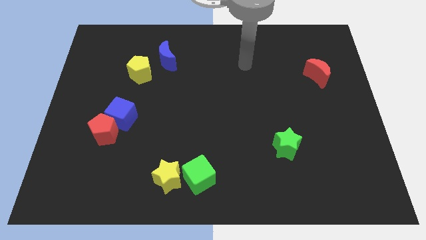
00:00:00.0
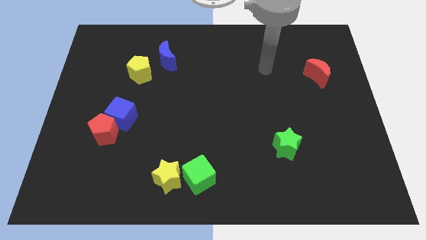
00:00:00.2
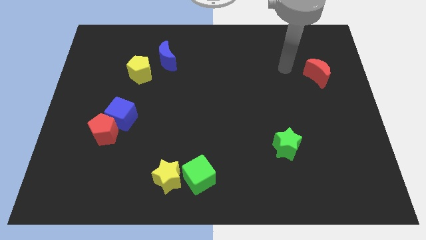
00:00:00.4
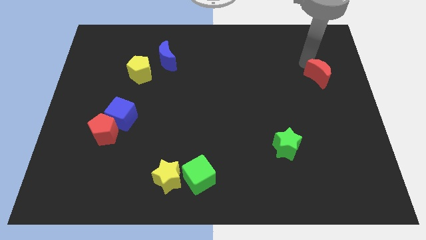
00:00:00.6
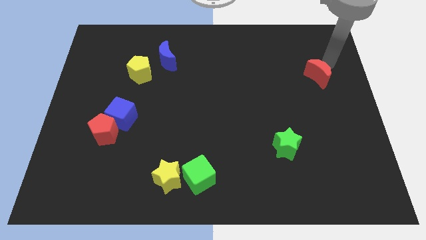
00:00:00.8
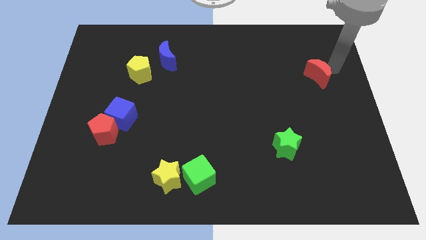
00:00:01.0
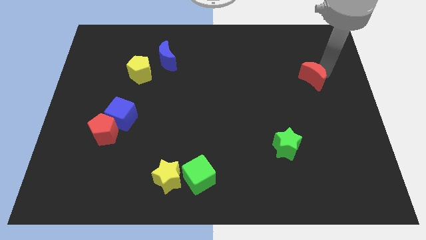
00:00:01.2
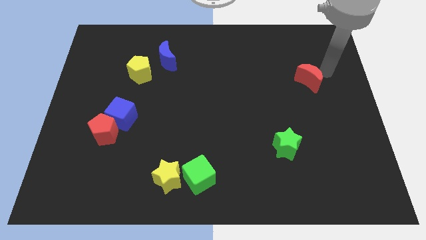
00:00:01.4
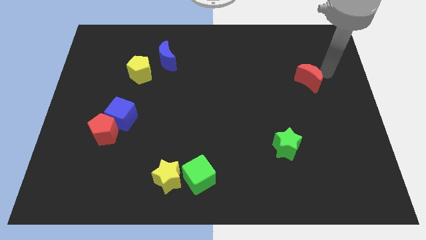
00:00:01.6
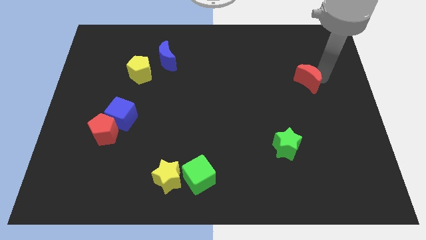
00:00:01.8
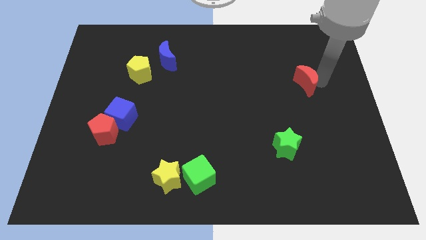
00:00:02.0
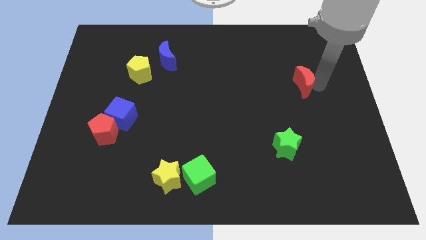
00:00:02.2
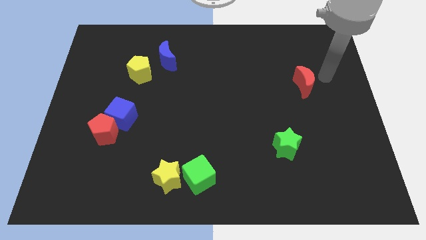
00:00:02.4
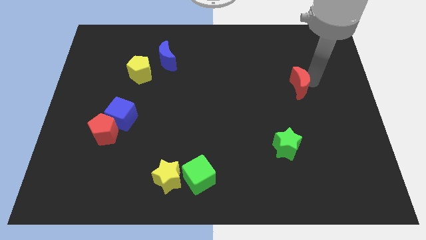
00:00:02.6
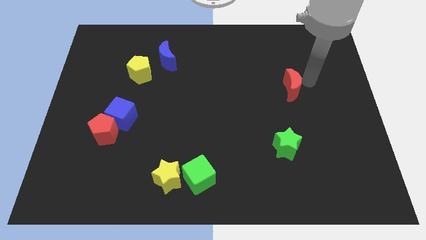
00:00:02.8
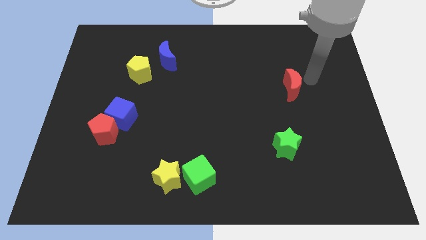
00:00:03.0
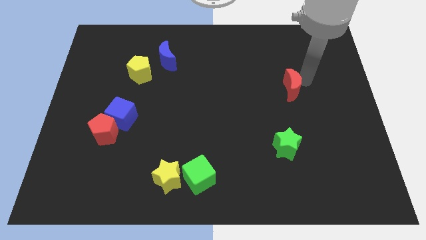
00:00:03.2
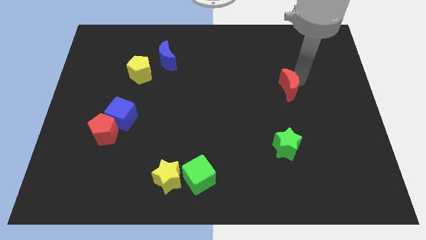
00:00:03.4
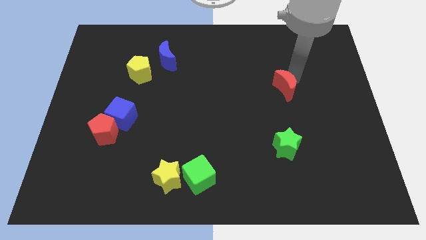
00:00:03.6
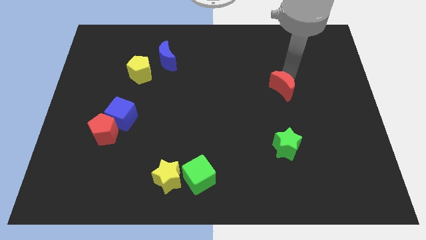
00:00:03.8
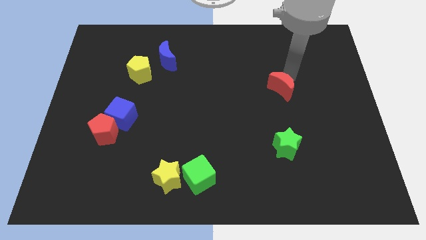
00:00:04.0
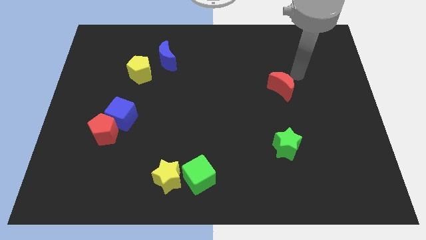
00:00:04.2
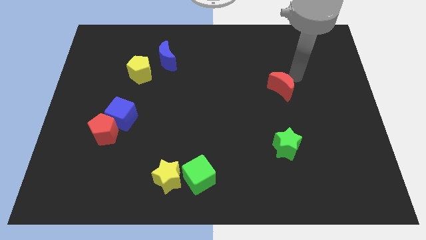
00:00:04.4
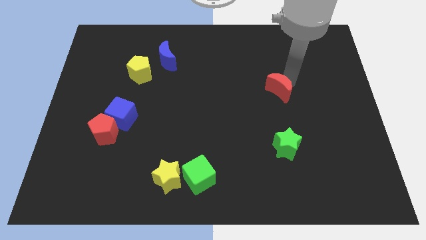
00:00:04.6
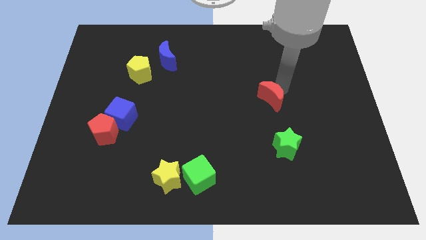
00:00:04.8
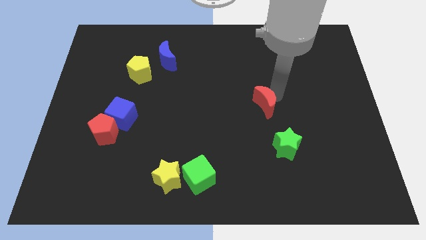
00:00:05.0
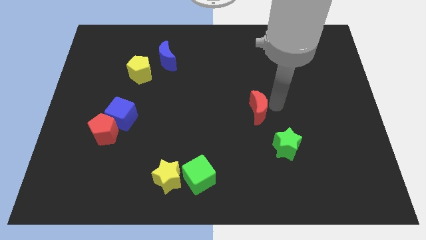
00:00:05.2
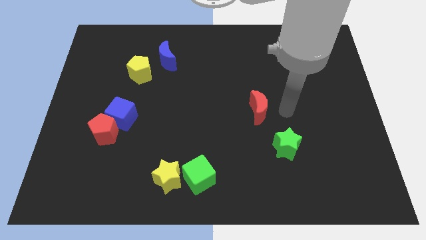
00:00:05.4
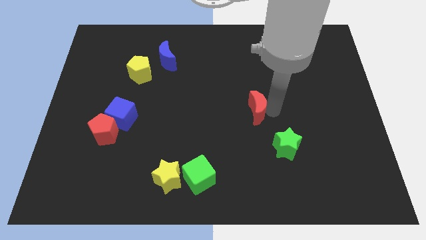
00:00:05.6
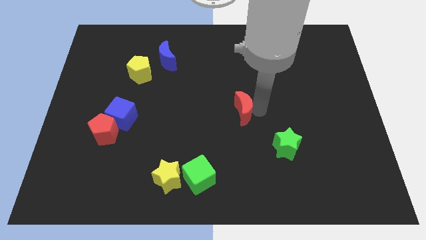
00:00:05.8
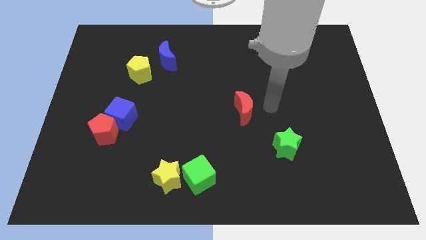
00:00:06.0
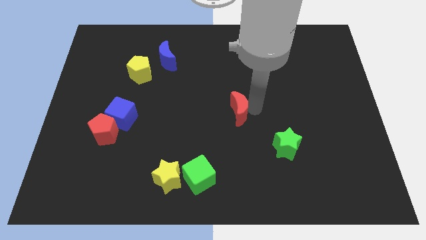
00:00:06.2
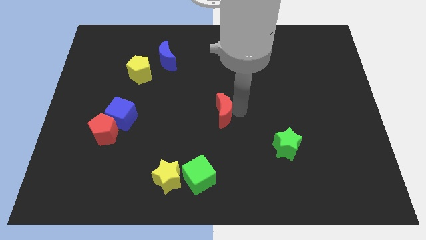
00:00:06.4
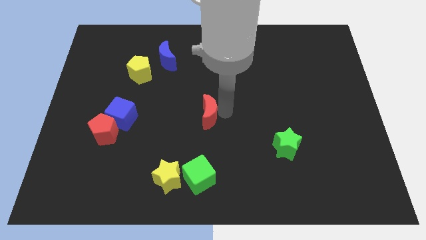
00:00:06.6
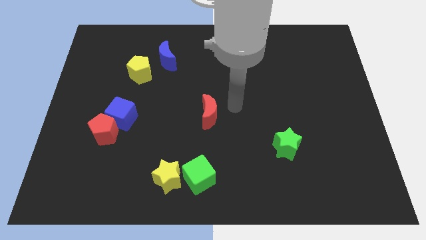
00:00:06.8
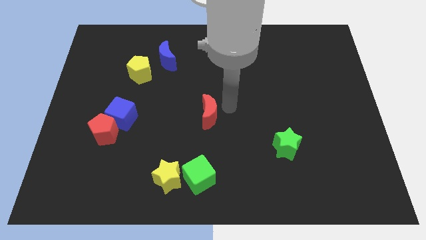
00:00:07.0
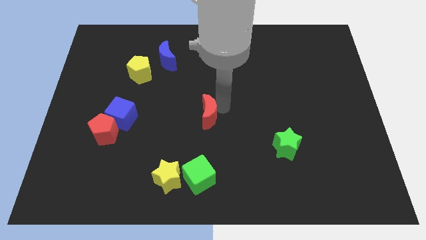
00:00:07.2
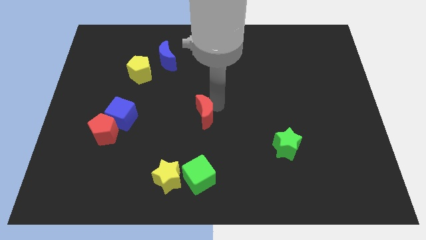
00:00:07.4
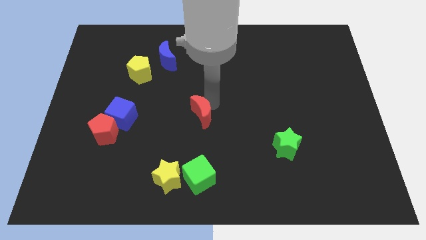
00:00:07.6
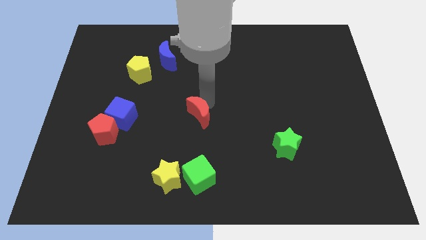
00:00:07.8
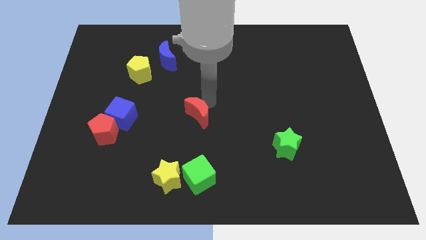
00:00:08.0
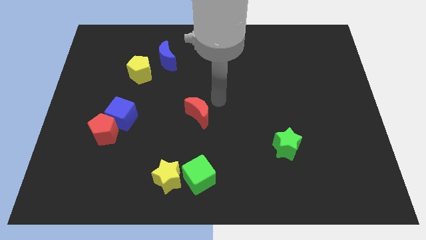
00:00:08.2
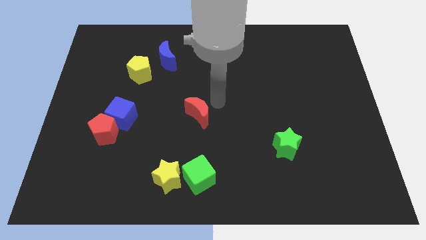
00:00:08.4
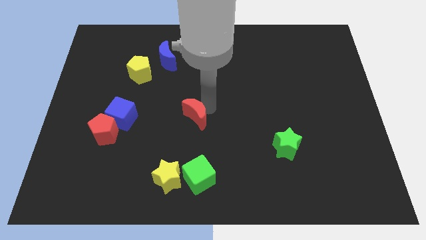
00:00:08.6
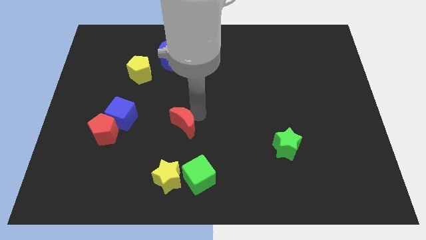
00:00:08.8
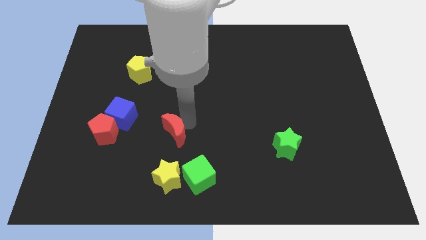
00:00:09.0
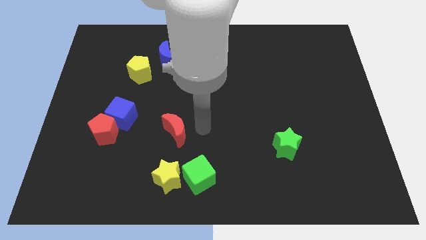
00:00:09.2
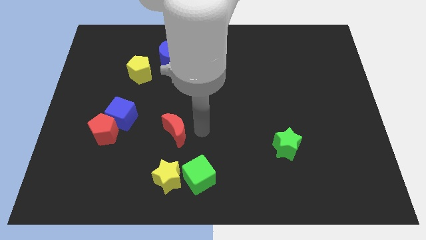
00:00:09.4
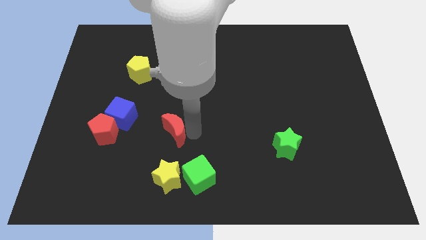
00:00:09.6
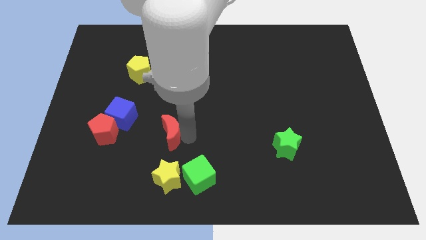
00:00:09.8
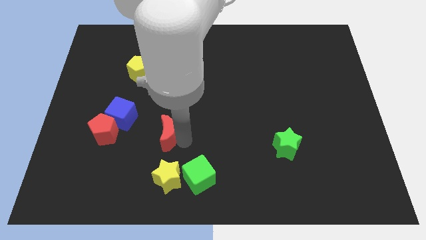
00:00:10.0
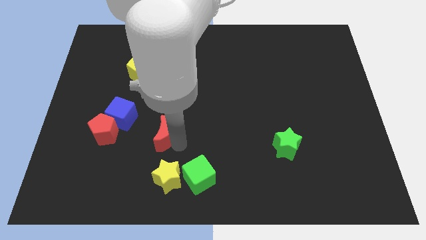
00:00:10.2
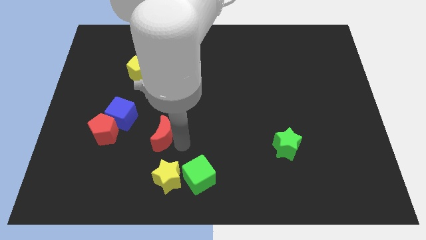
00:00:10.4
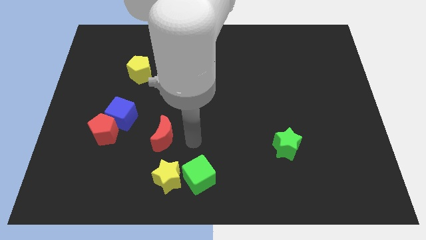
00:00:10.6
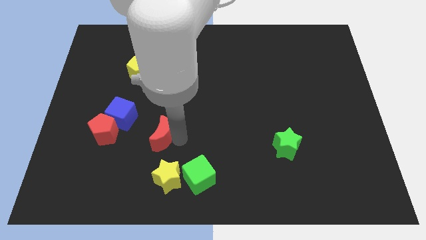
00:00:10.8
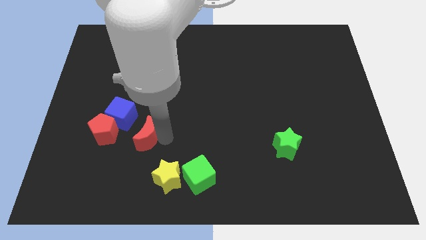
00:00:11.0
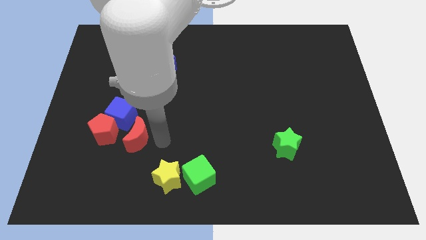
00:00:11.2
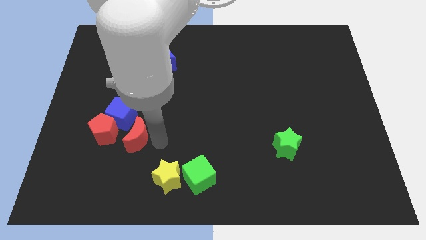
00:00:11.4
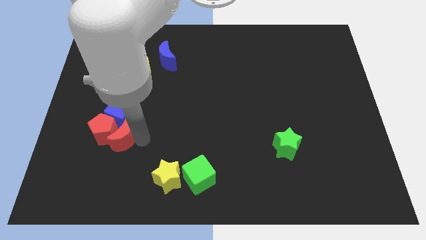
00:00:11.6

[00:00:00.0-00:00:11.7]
slide the red moon next to the red pentagon

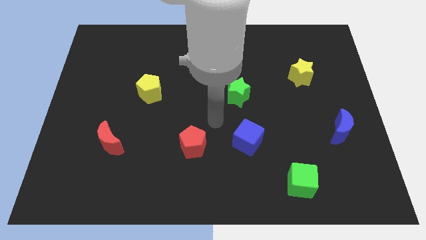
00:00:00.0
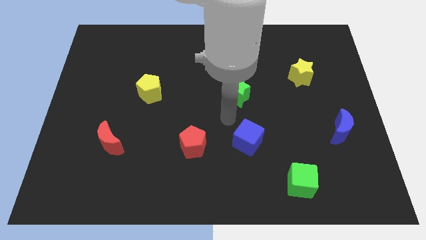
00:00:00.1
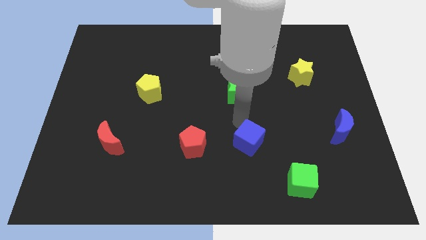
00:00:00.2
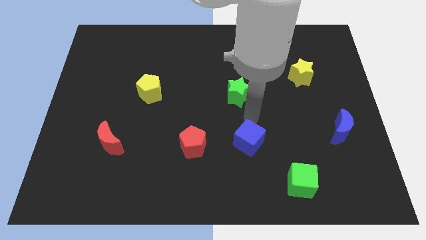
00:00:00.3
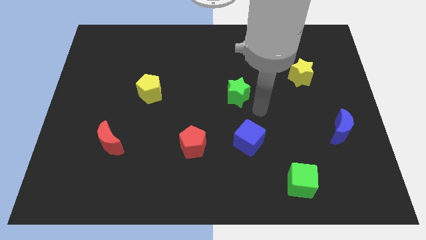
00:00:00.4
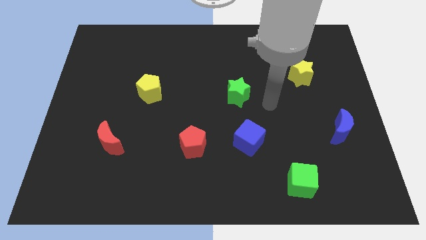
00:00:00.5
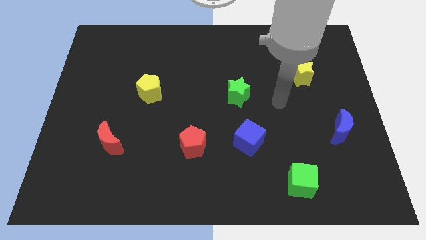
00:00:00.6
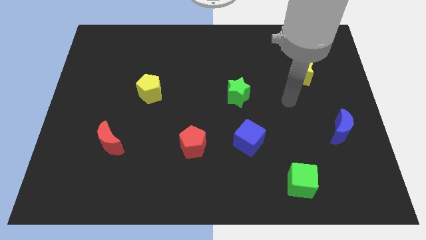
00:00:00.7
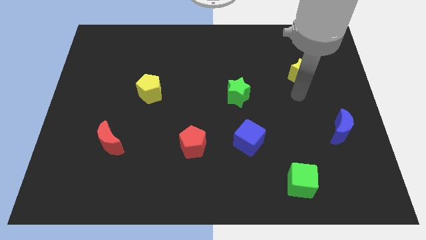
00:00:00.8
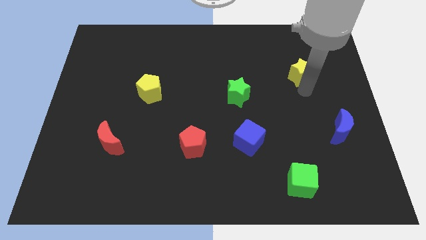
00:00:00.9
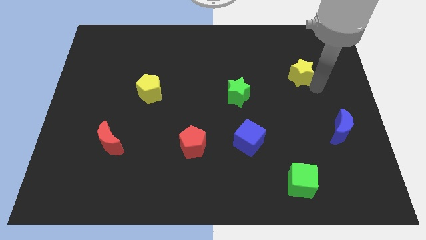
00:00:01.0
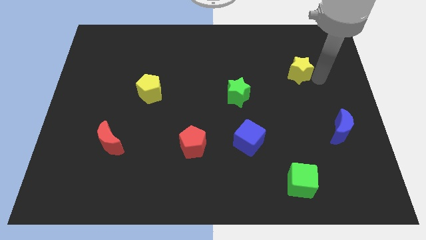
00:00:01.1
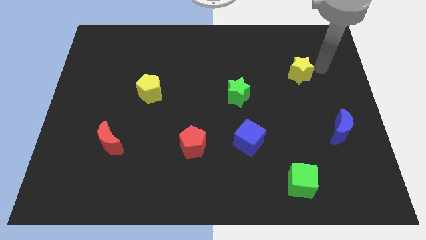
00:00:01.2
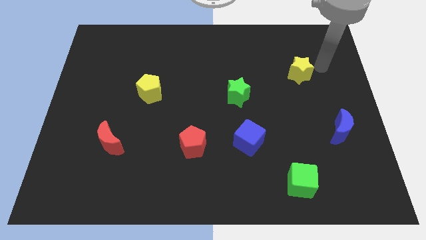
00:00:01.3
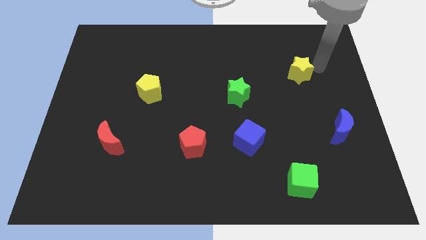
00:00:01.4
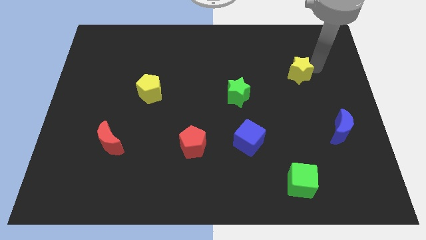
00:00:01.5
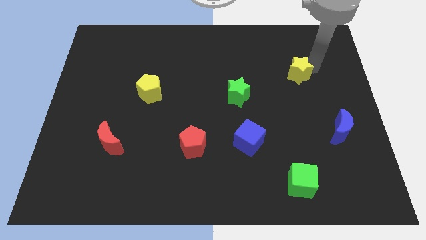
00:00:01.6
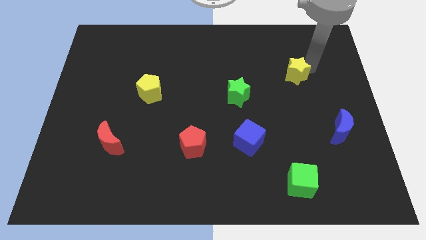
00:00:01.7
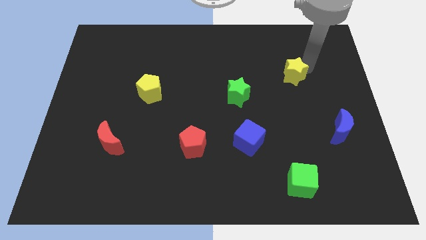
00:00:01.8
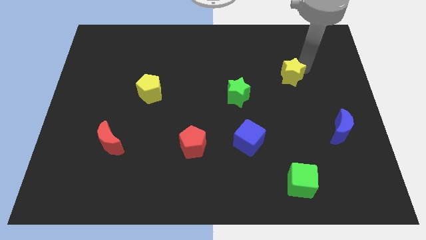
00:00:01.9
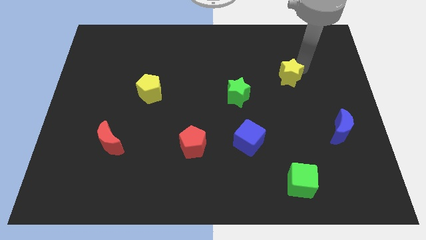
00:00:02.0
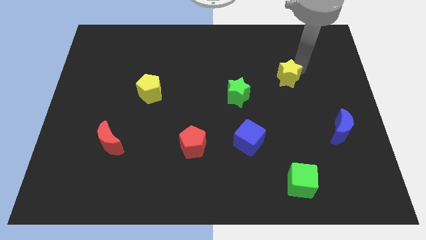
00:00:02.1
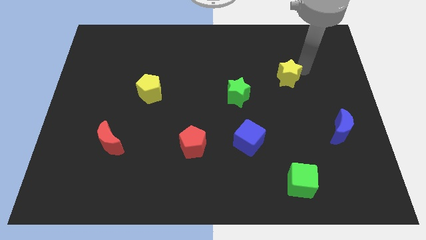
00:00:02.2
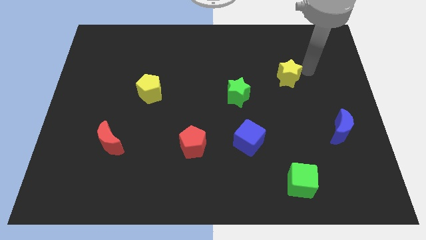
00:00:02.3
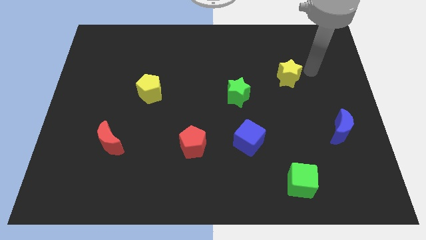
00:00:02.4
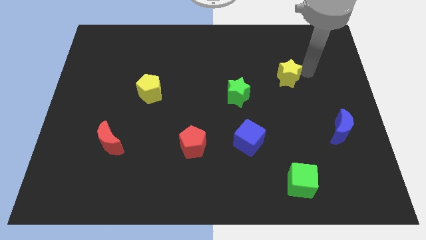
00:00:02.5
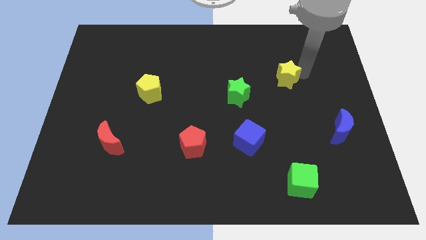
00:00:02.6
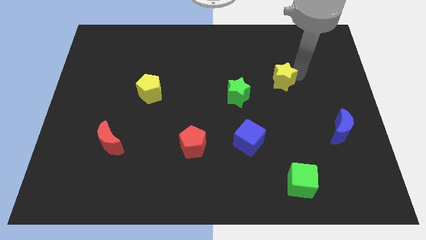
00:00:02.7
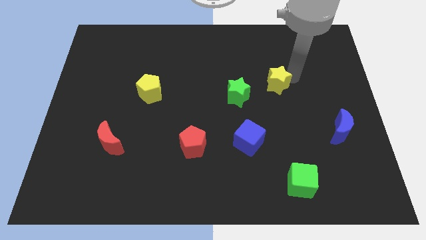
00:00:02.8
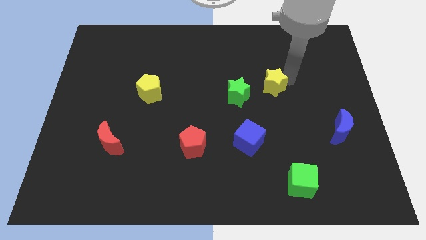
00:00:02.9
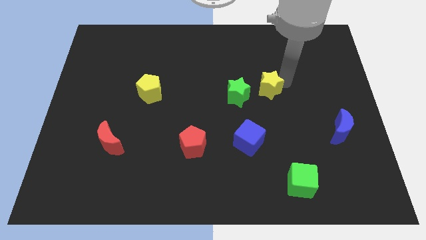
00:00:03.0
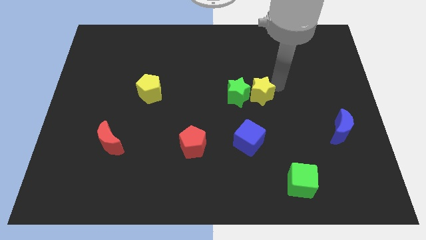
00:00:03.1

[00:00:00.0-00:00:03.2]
put the yellow star towards the green star
